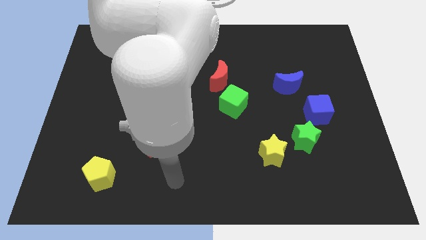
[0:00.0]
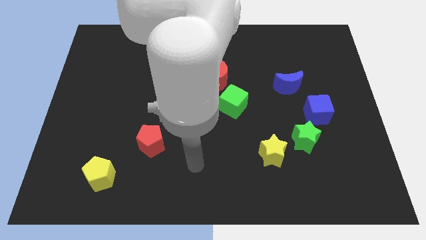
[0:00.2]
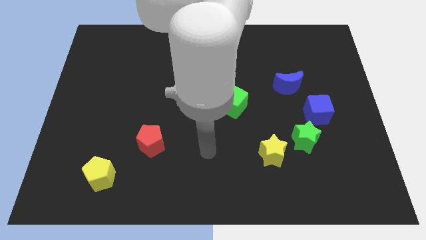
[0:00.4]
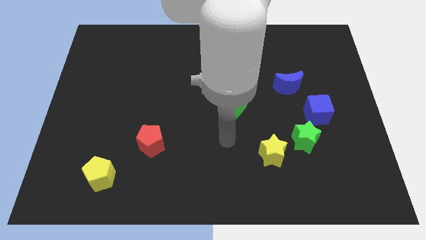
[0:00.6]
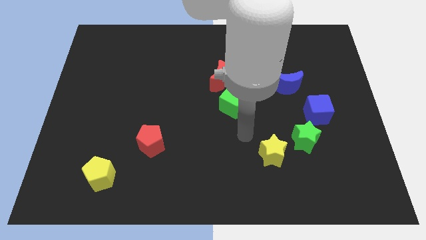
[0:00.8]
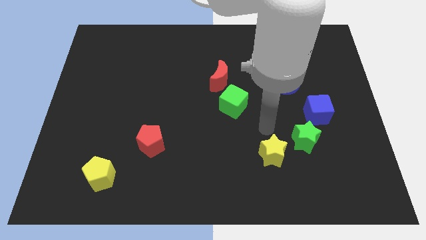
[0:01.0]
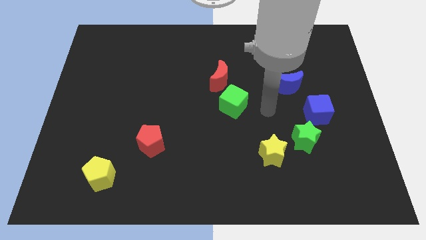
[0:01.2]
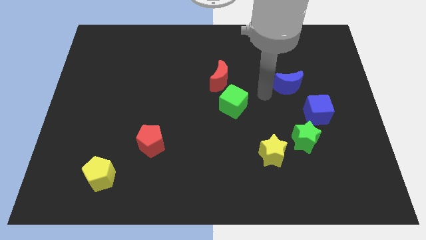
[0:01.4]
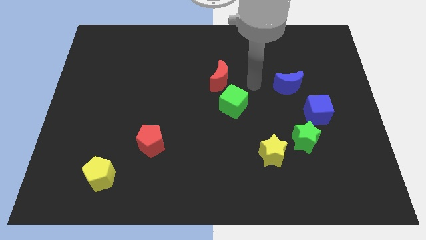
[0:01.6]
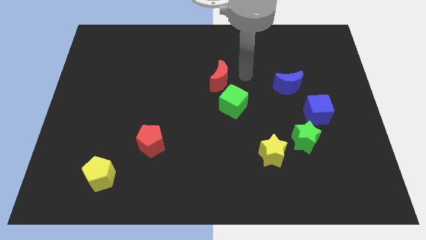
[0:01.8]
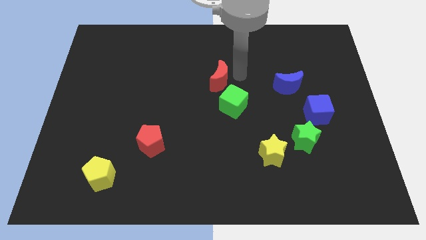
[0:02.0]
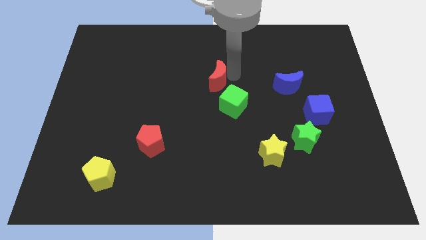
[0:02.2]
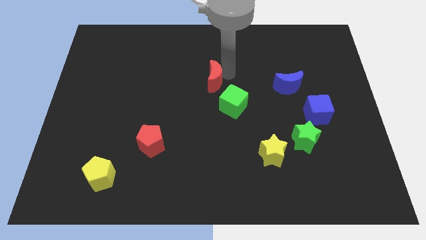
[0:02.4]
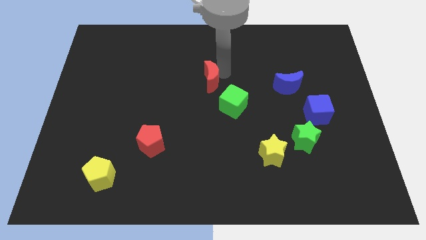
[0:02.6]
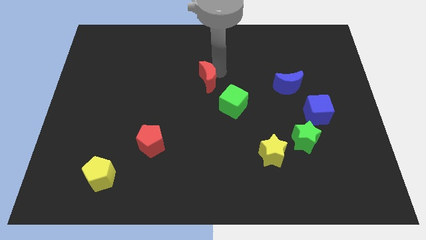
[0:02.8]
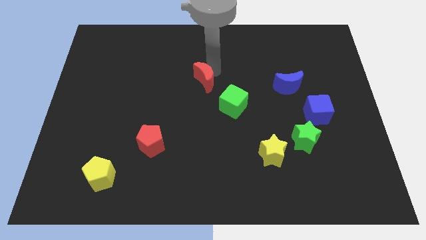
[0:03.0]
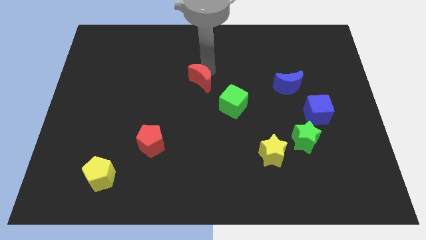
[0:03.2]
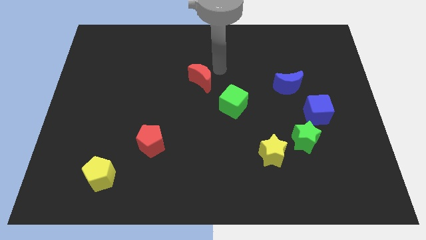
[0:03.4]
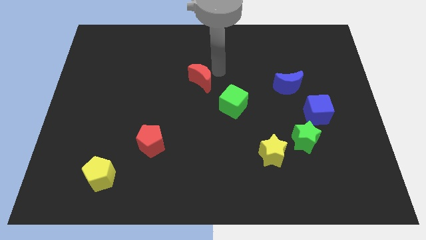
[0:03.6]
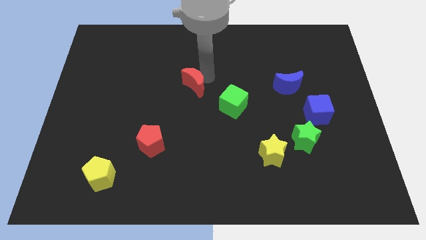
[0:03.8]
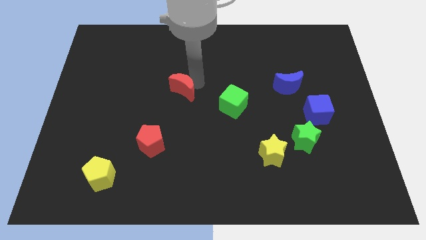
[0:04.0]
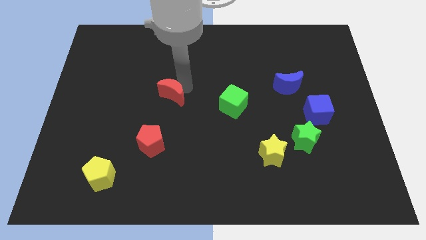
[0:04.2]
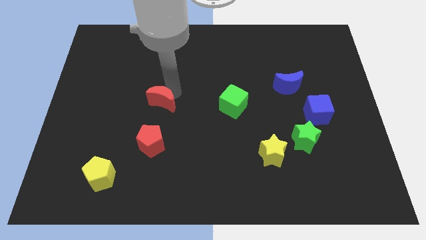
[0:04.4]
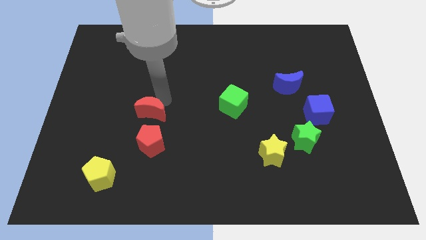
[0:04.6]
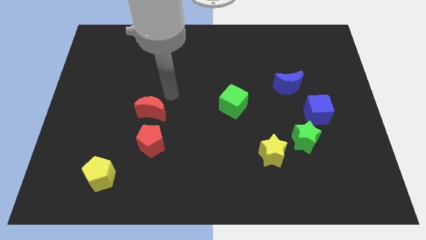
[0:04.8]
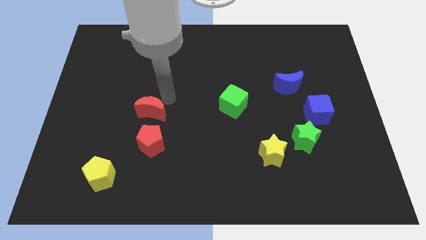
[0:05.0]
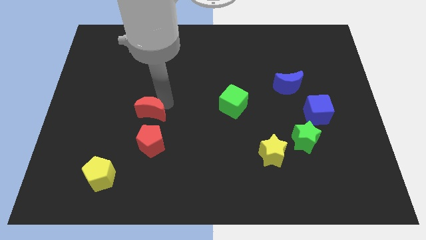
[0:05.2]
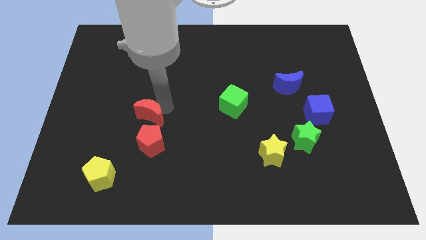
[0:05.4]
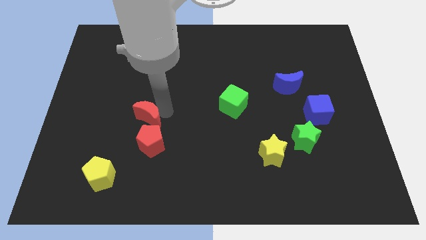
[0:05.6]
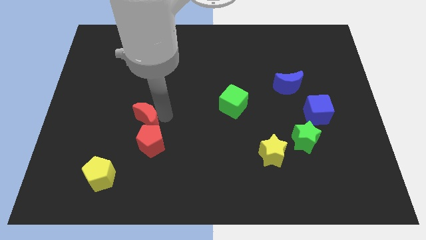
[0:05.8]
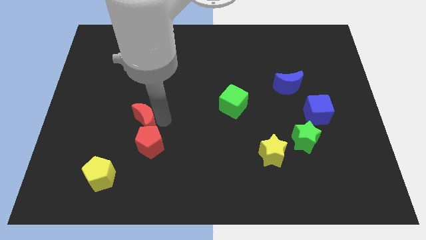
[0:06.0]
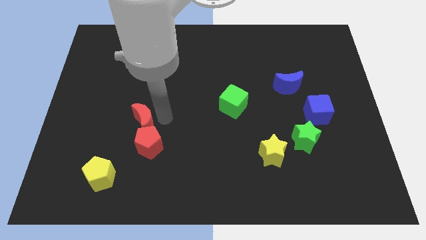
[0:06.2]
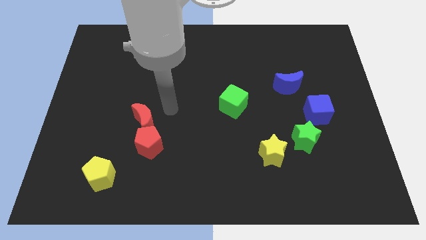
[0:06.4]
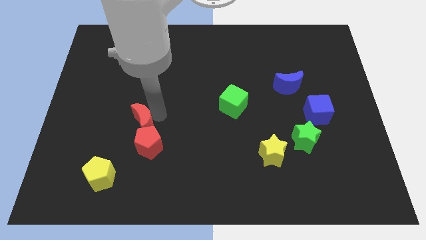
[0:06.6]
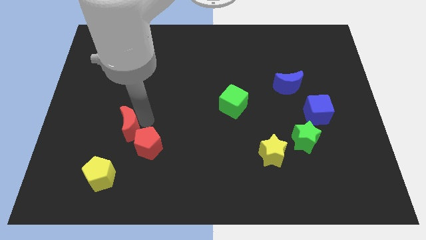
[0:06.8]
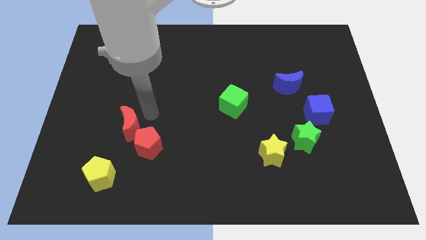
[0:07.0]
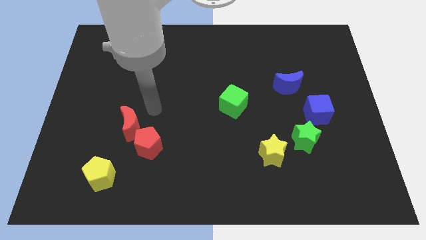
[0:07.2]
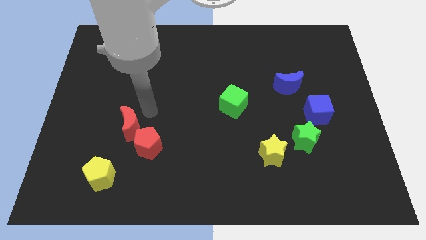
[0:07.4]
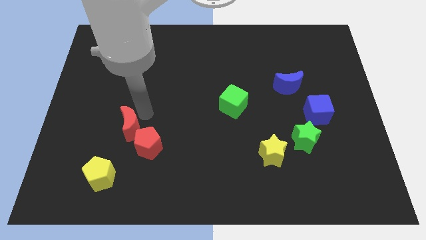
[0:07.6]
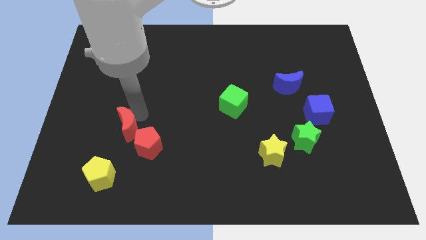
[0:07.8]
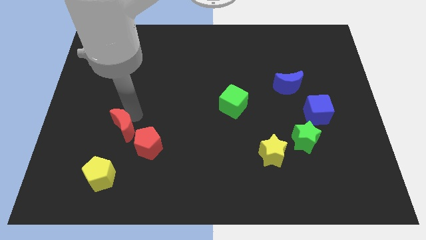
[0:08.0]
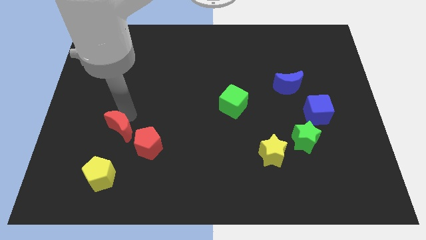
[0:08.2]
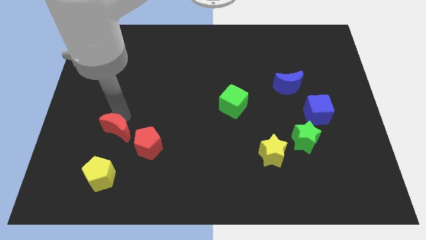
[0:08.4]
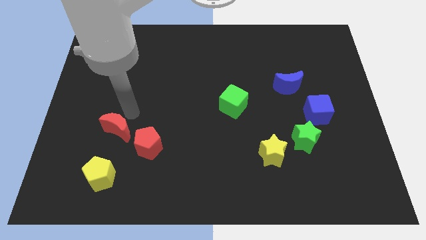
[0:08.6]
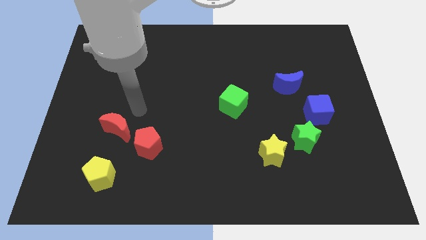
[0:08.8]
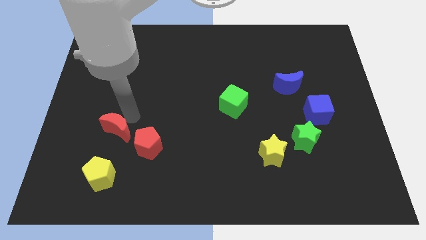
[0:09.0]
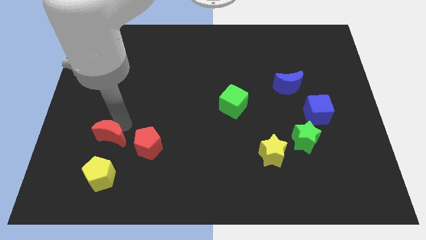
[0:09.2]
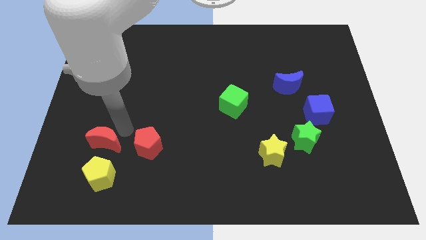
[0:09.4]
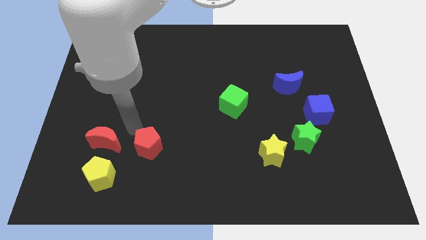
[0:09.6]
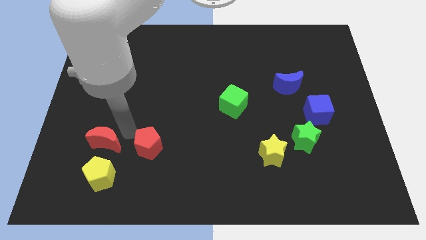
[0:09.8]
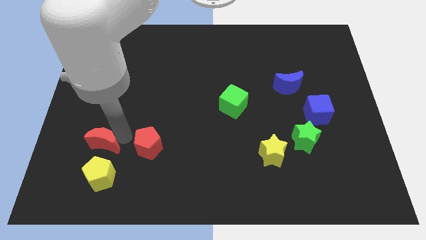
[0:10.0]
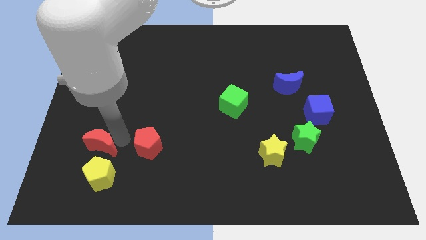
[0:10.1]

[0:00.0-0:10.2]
push the red moon to the top left of the yellow pentagon

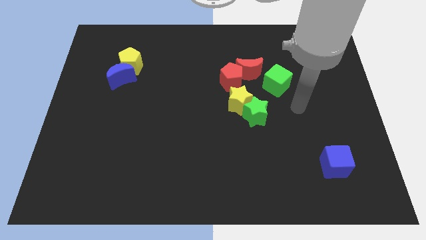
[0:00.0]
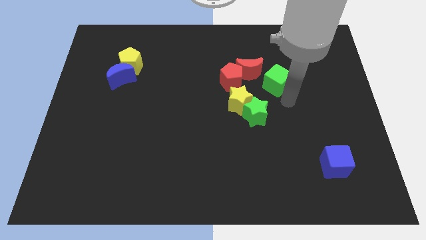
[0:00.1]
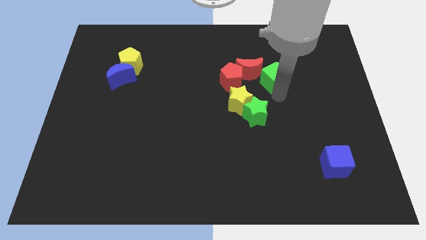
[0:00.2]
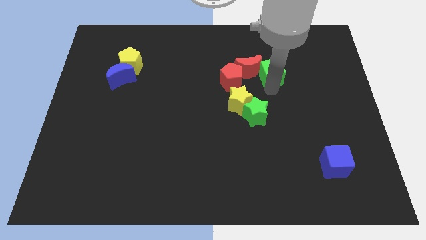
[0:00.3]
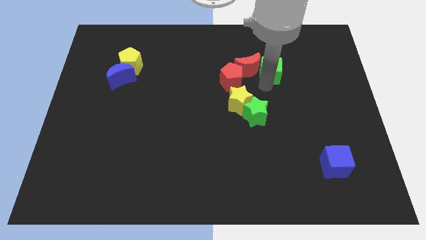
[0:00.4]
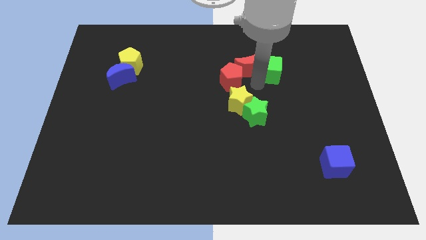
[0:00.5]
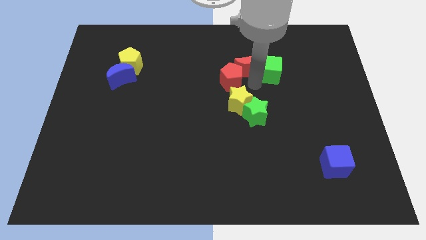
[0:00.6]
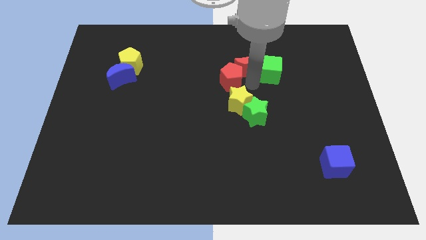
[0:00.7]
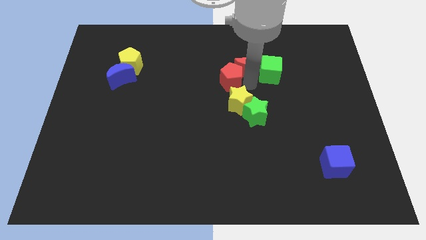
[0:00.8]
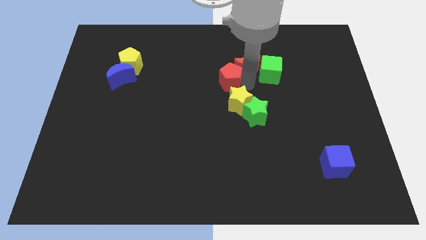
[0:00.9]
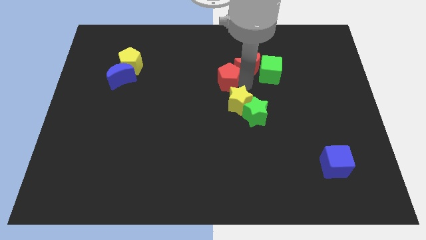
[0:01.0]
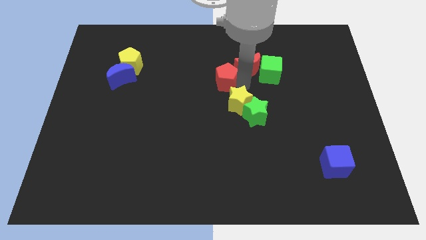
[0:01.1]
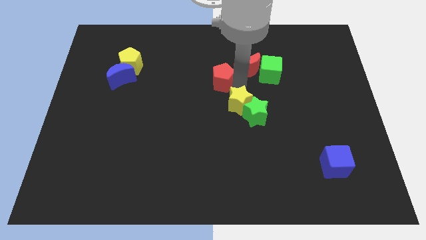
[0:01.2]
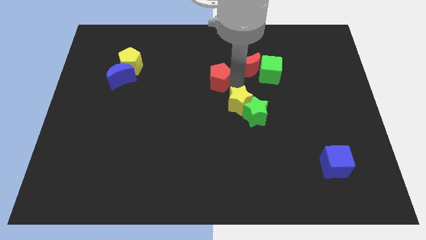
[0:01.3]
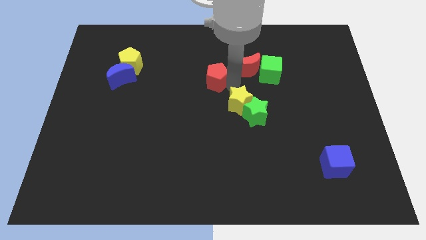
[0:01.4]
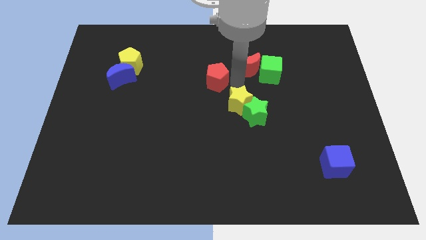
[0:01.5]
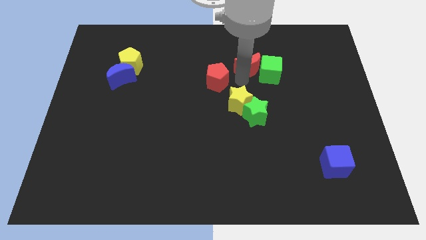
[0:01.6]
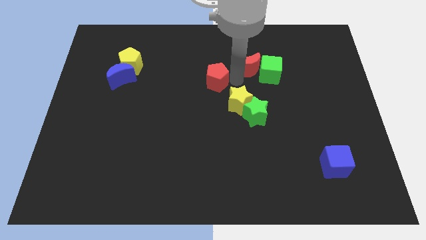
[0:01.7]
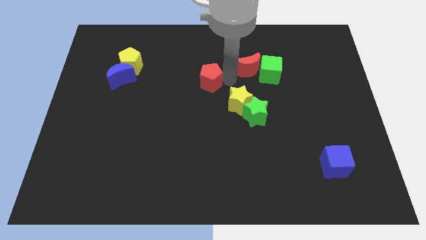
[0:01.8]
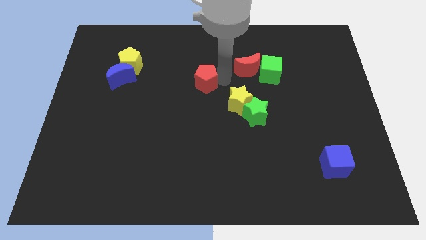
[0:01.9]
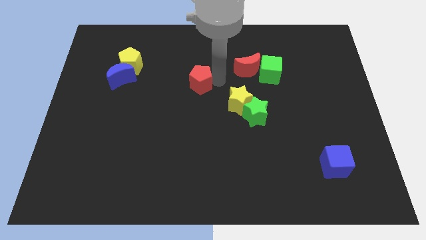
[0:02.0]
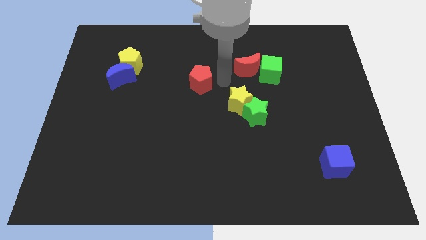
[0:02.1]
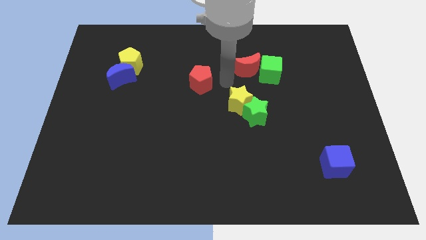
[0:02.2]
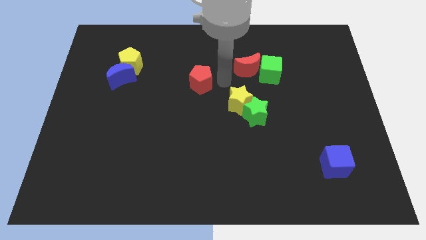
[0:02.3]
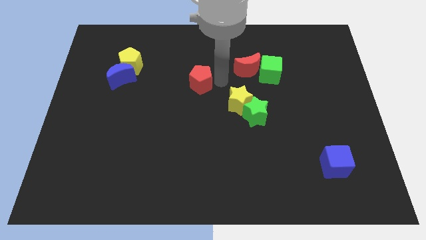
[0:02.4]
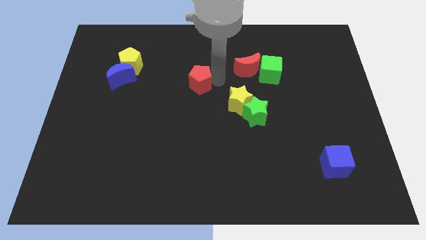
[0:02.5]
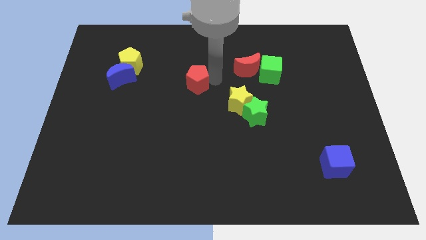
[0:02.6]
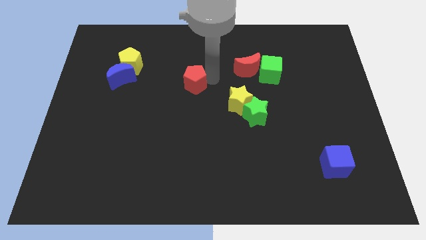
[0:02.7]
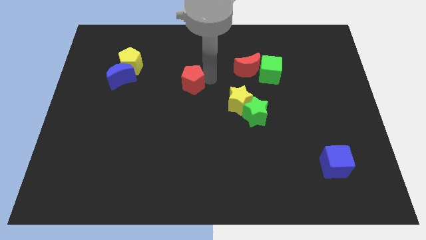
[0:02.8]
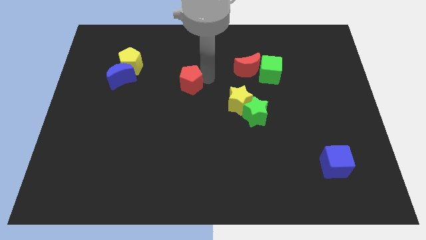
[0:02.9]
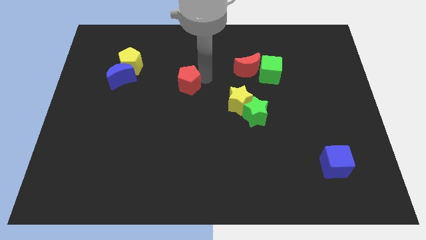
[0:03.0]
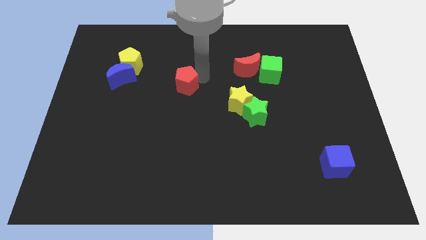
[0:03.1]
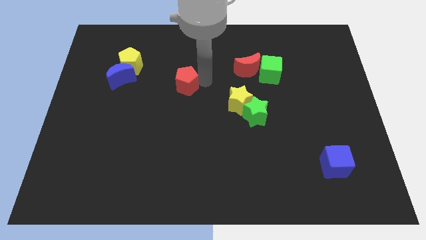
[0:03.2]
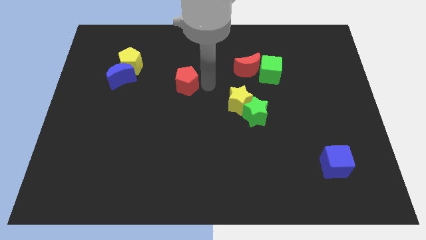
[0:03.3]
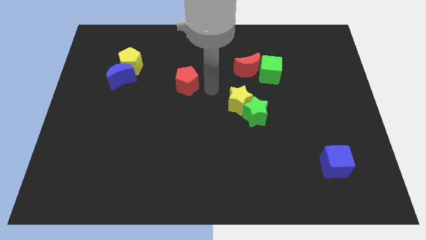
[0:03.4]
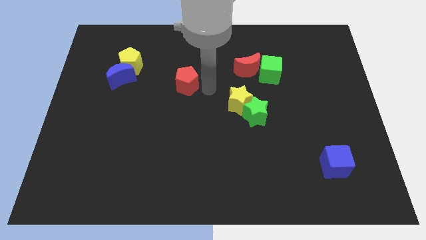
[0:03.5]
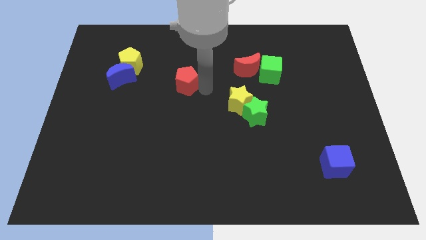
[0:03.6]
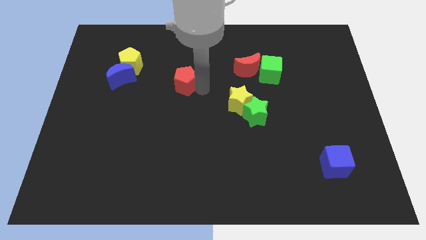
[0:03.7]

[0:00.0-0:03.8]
move the red pentagon to the right side of the blue moon
